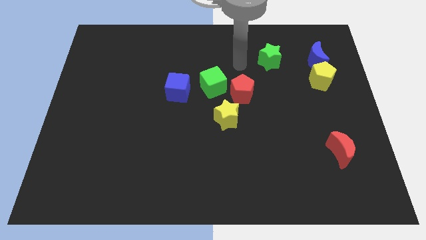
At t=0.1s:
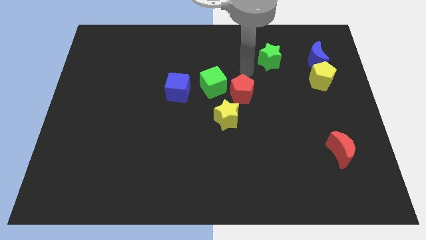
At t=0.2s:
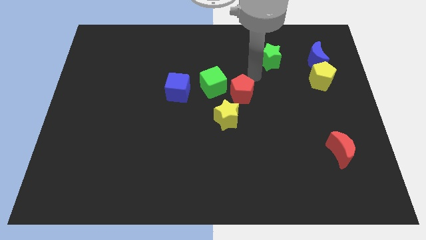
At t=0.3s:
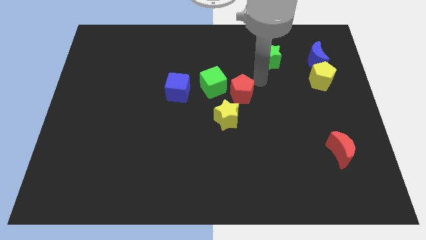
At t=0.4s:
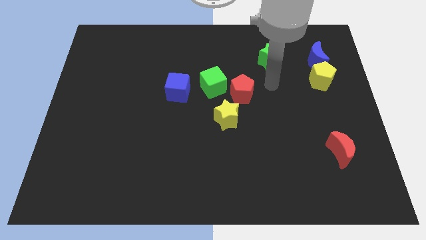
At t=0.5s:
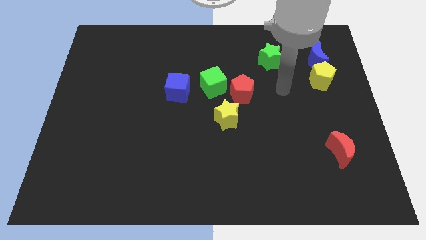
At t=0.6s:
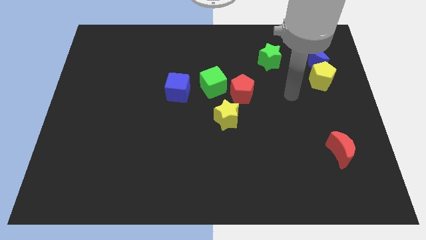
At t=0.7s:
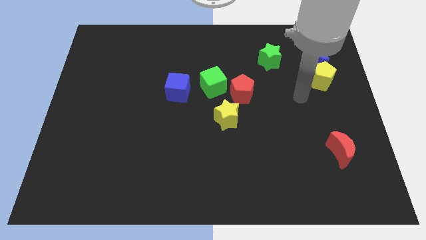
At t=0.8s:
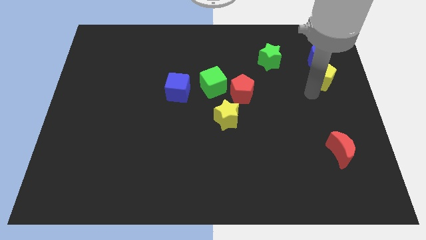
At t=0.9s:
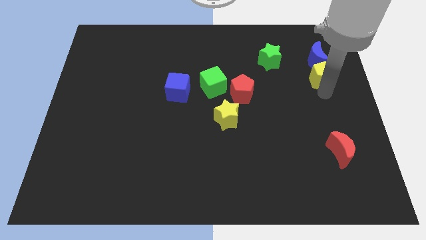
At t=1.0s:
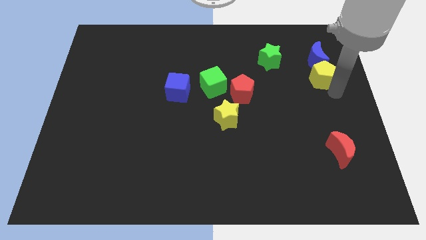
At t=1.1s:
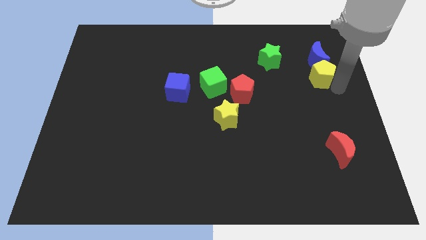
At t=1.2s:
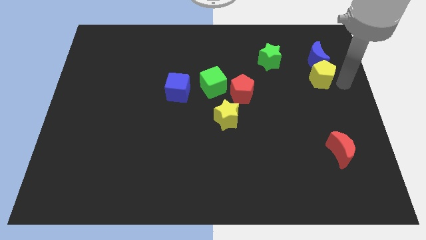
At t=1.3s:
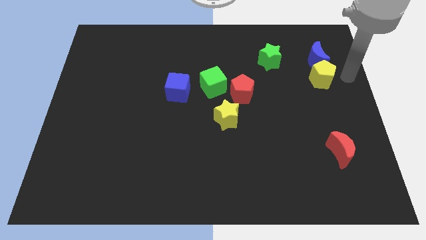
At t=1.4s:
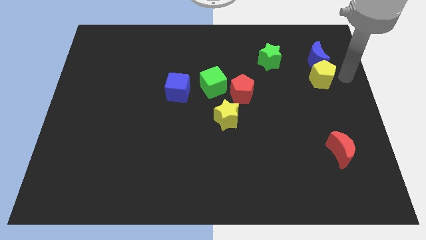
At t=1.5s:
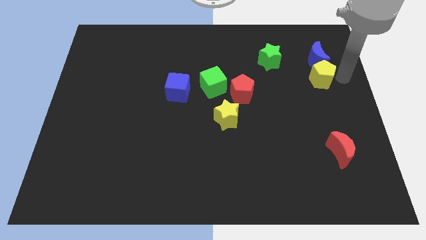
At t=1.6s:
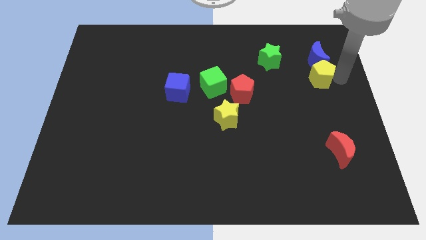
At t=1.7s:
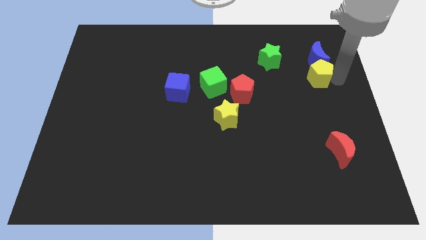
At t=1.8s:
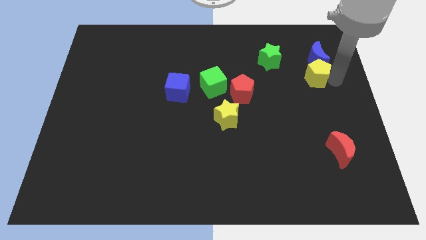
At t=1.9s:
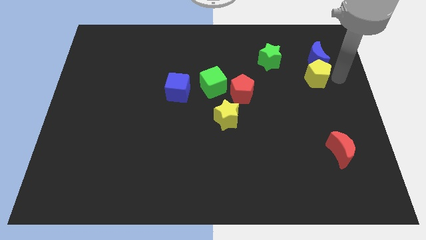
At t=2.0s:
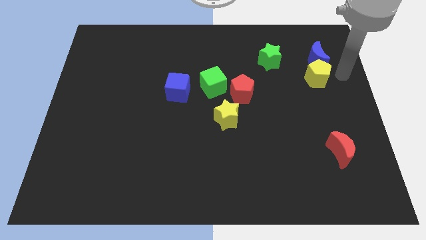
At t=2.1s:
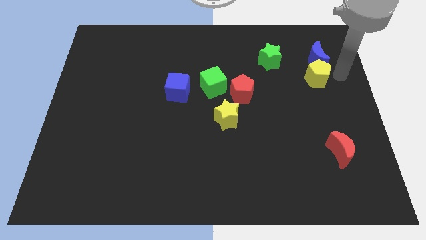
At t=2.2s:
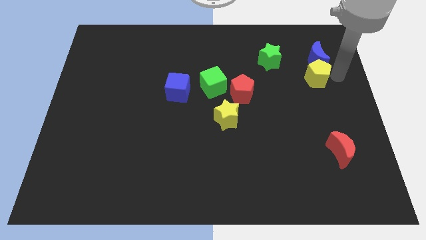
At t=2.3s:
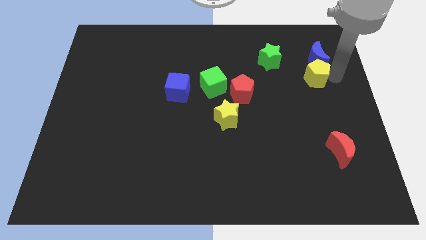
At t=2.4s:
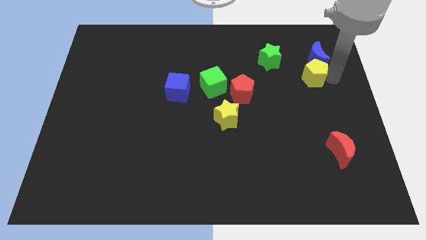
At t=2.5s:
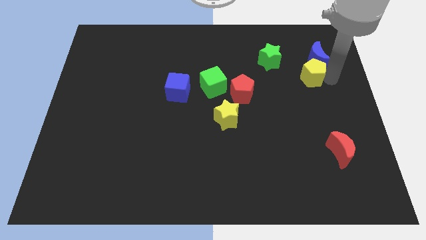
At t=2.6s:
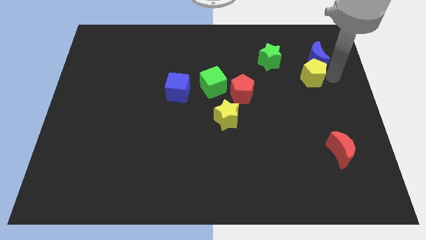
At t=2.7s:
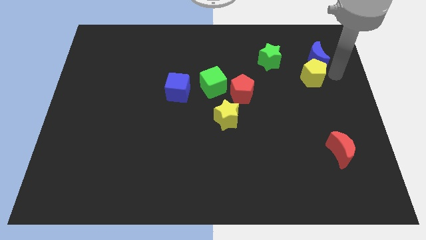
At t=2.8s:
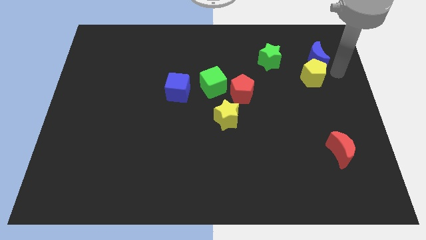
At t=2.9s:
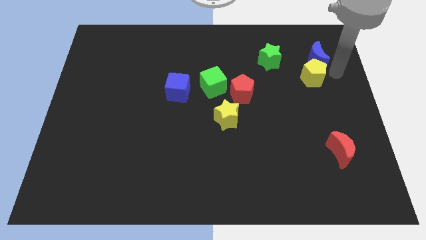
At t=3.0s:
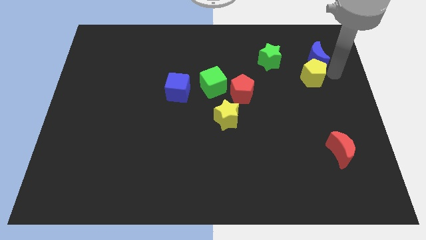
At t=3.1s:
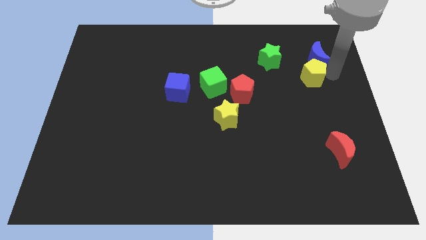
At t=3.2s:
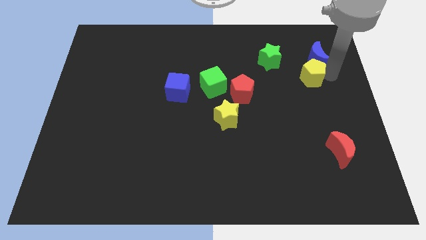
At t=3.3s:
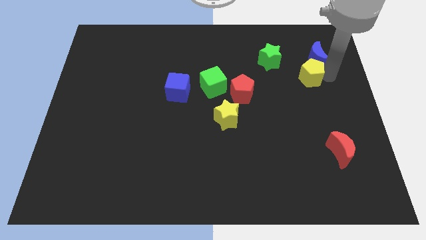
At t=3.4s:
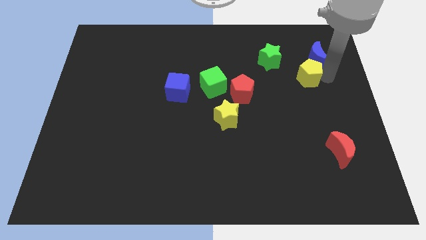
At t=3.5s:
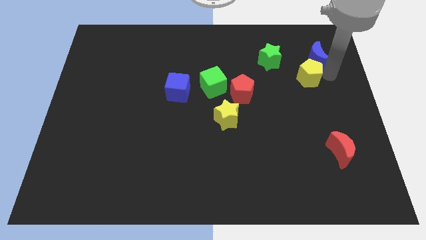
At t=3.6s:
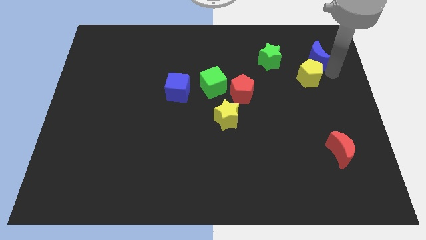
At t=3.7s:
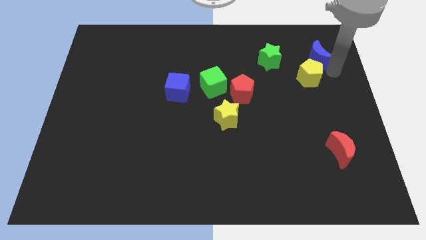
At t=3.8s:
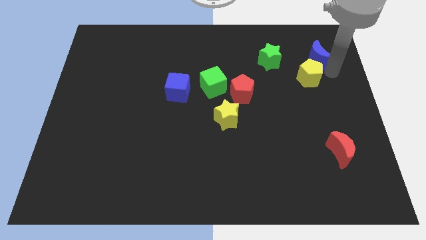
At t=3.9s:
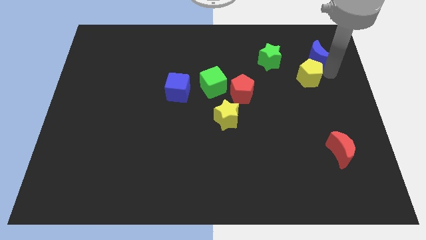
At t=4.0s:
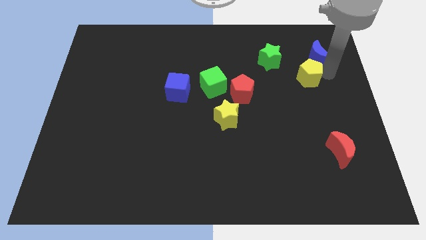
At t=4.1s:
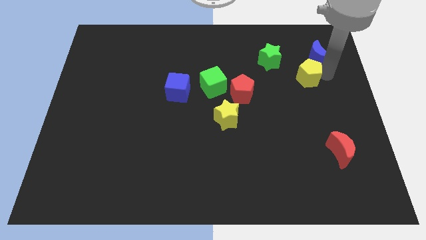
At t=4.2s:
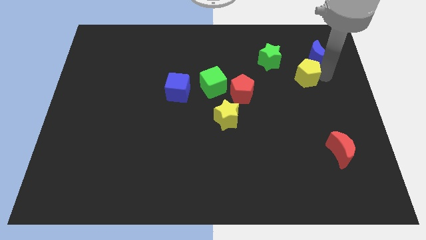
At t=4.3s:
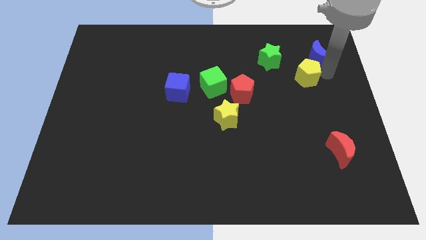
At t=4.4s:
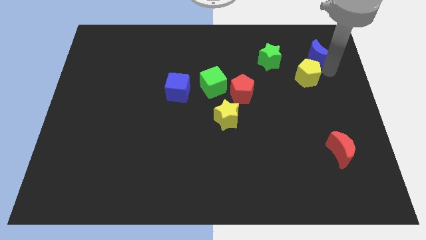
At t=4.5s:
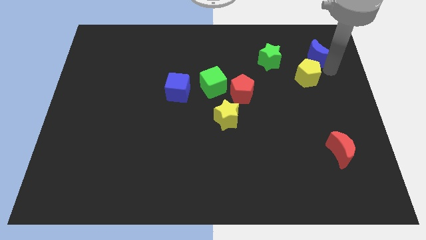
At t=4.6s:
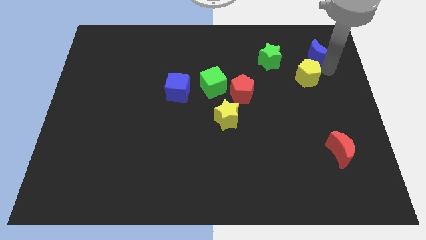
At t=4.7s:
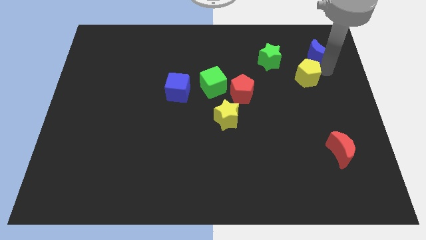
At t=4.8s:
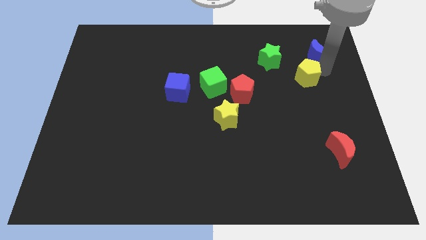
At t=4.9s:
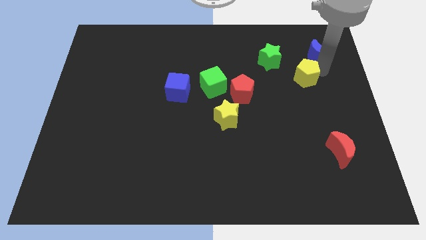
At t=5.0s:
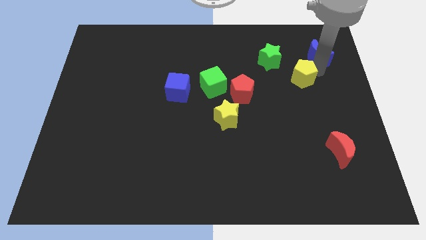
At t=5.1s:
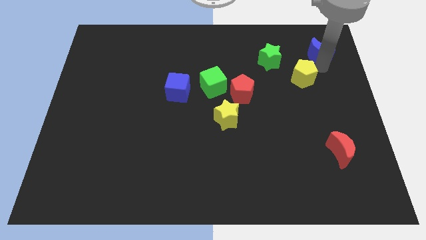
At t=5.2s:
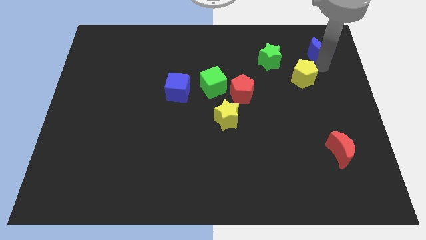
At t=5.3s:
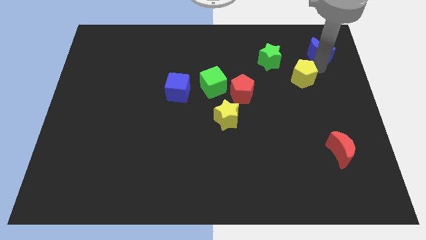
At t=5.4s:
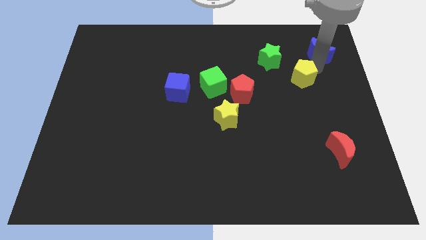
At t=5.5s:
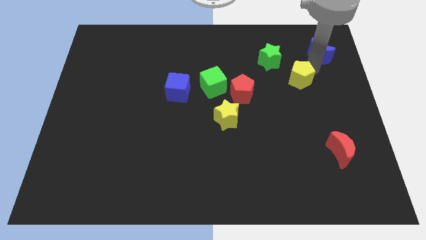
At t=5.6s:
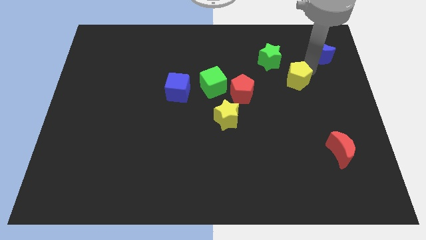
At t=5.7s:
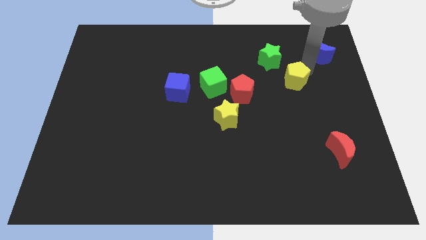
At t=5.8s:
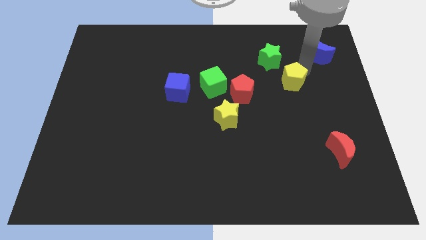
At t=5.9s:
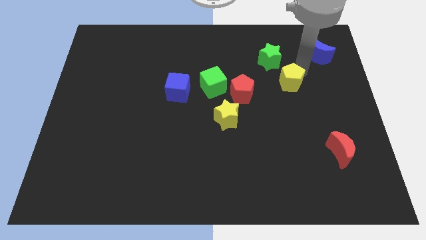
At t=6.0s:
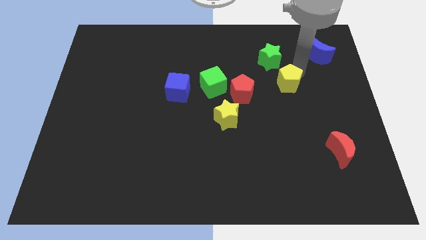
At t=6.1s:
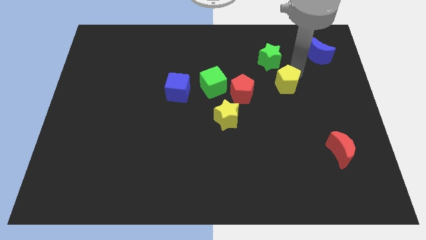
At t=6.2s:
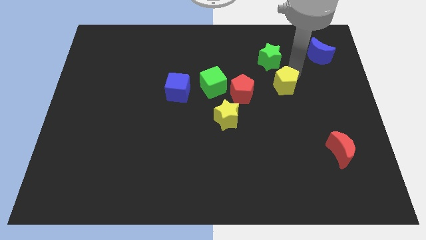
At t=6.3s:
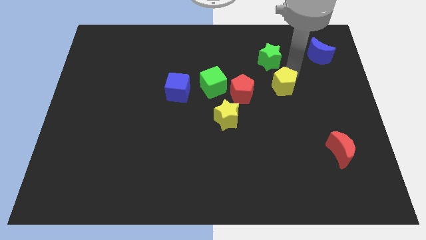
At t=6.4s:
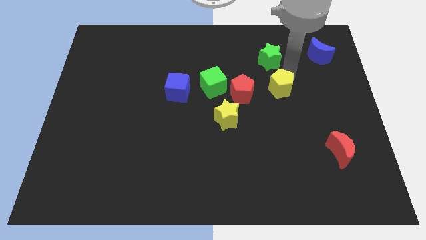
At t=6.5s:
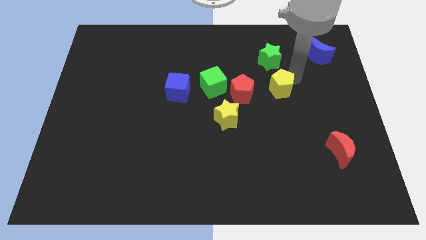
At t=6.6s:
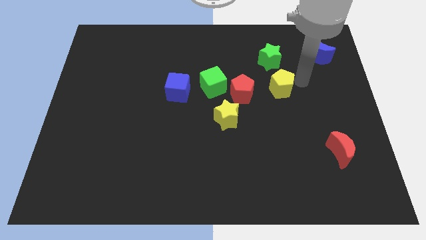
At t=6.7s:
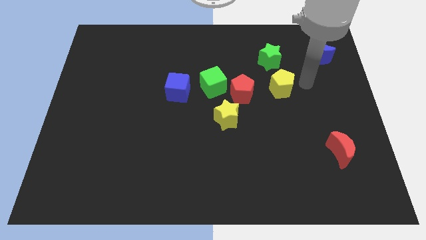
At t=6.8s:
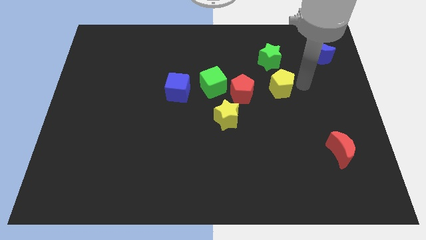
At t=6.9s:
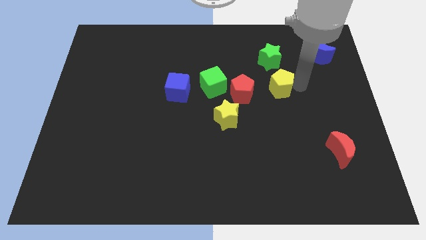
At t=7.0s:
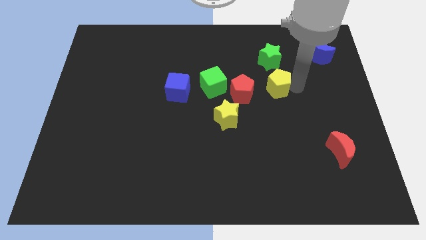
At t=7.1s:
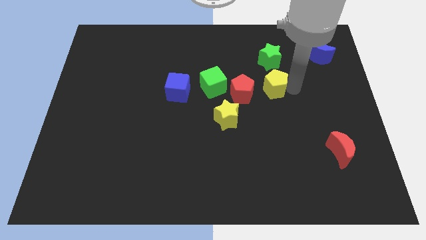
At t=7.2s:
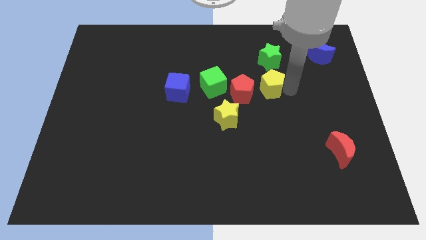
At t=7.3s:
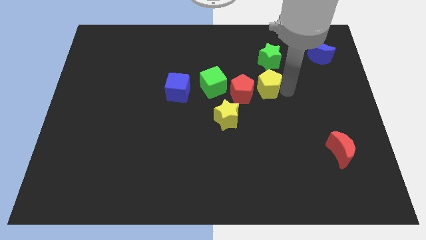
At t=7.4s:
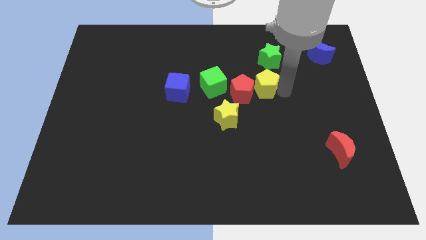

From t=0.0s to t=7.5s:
move the yellow pentagon to the red pentagon
